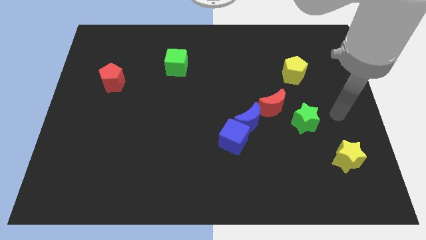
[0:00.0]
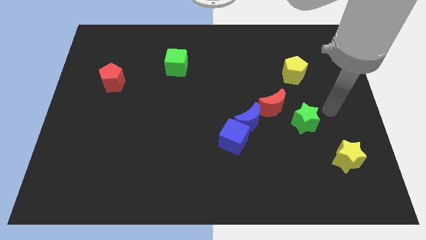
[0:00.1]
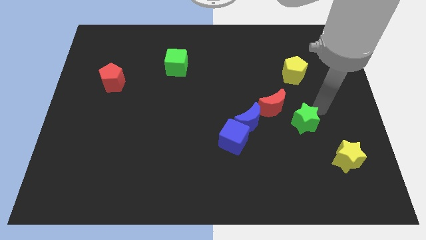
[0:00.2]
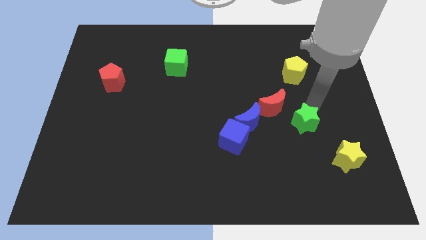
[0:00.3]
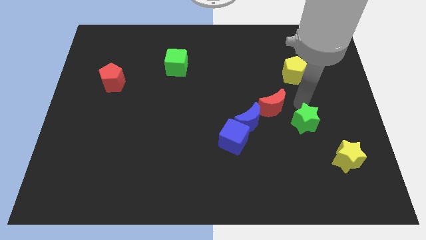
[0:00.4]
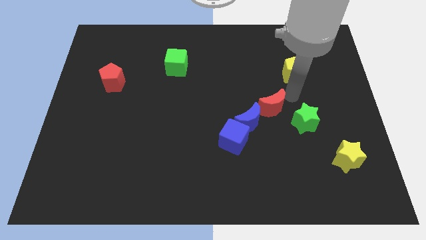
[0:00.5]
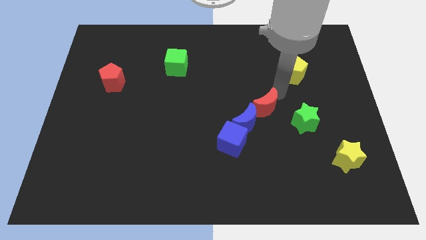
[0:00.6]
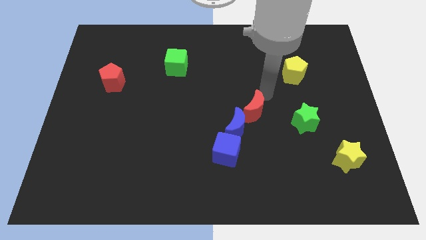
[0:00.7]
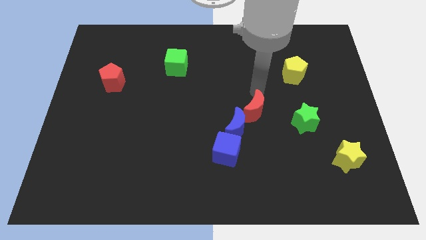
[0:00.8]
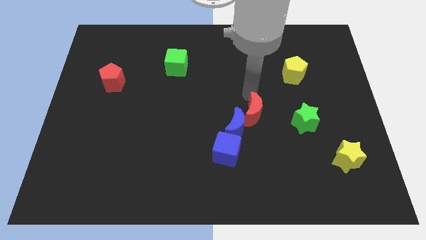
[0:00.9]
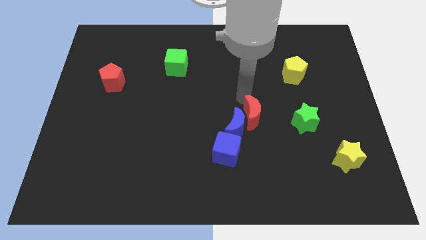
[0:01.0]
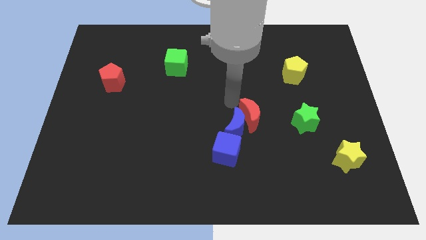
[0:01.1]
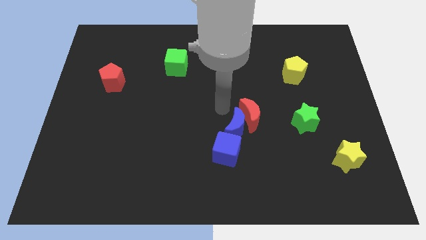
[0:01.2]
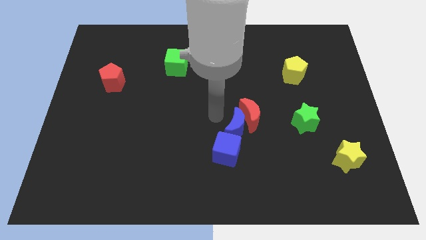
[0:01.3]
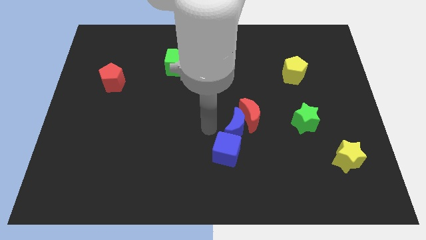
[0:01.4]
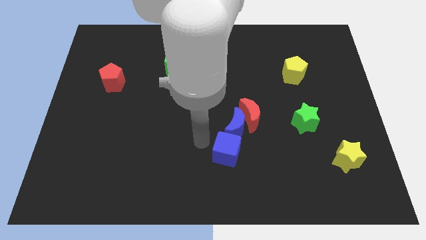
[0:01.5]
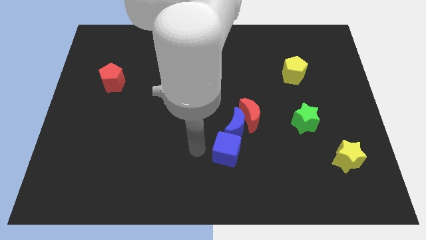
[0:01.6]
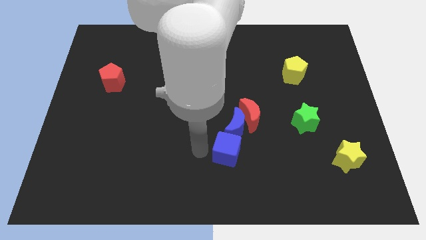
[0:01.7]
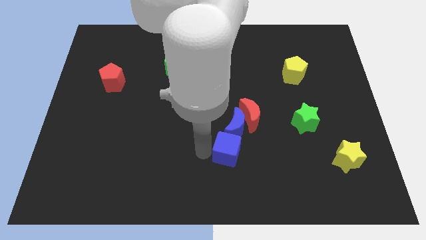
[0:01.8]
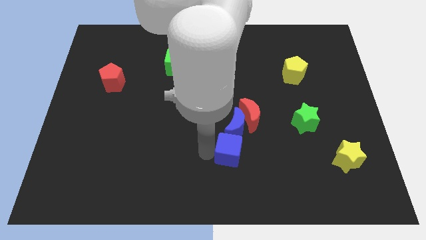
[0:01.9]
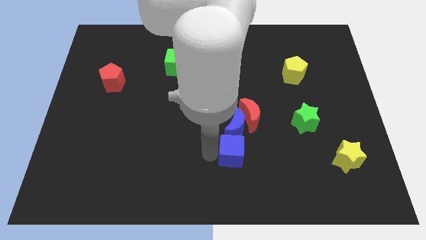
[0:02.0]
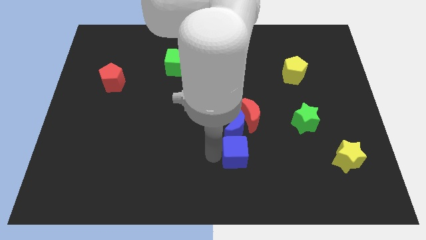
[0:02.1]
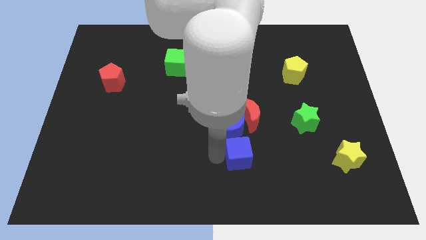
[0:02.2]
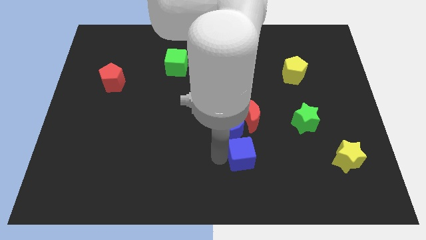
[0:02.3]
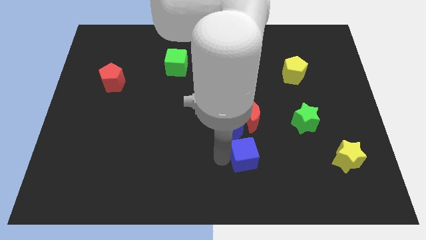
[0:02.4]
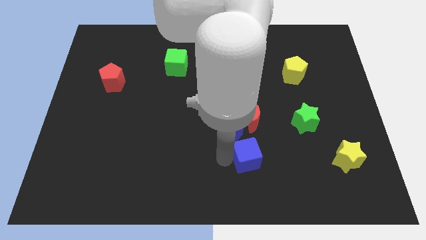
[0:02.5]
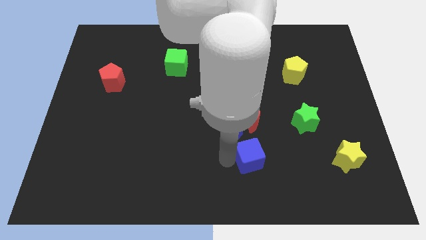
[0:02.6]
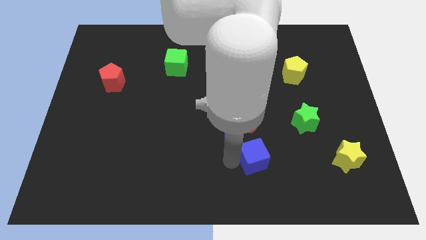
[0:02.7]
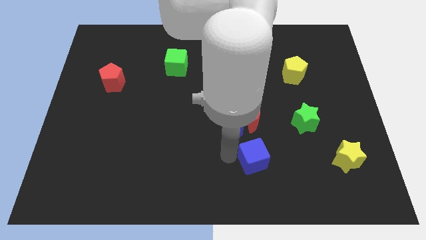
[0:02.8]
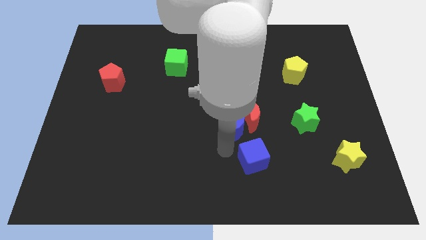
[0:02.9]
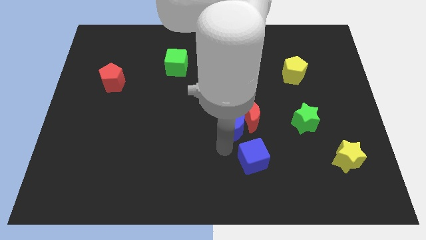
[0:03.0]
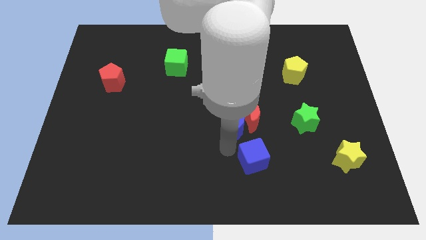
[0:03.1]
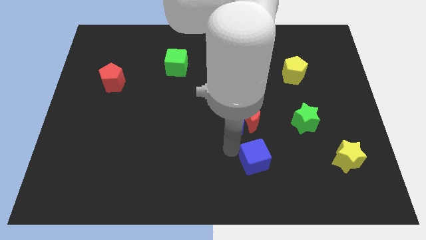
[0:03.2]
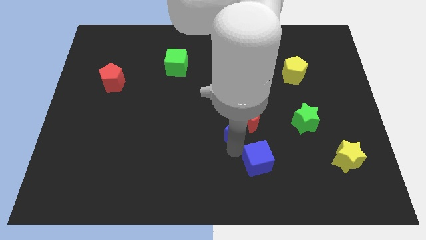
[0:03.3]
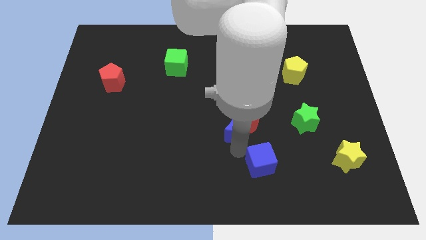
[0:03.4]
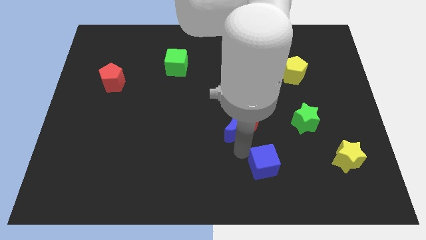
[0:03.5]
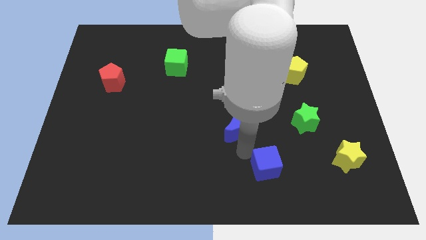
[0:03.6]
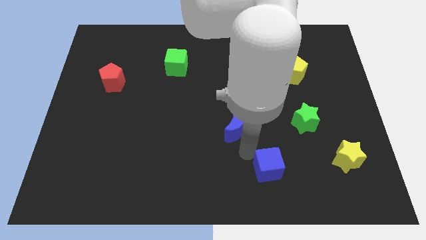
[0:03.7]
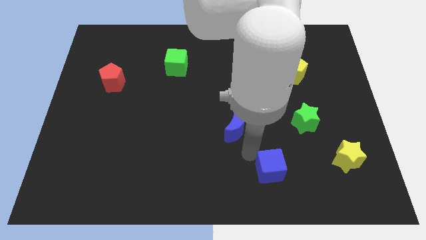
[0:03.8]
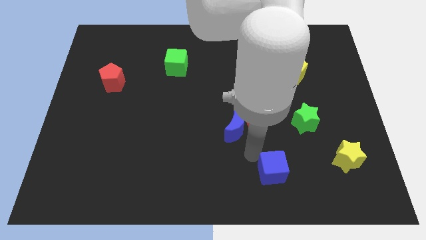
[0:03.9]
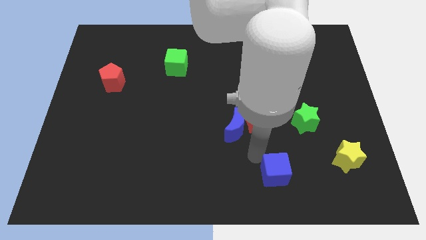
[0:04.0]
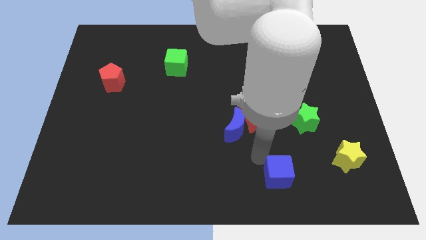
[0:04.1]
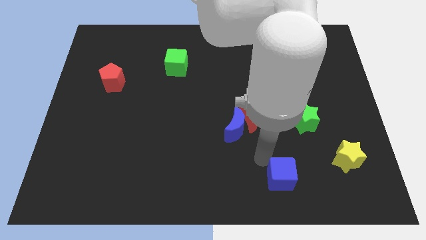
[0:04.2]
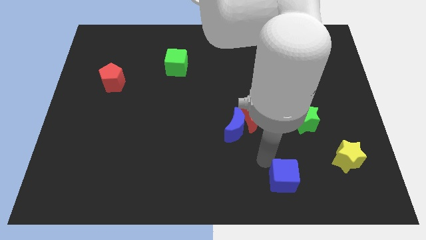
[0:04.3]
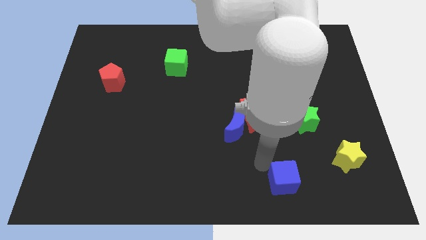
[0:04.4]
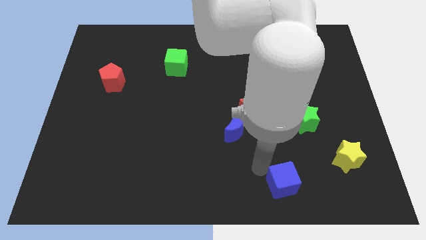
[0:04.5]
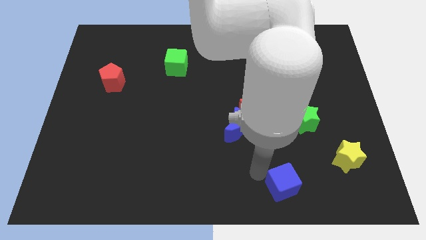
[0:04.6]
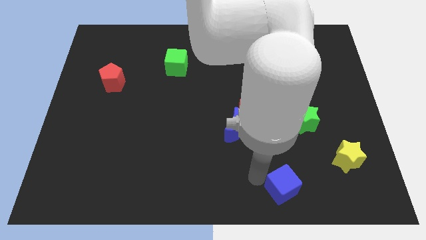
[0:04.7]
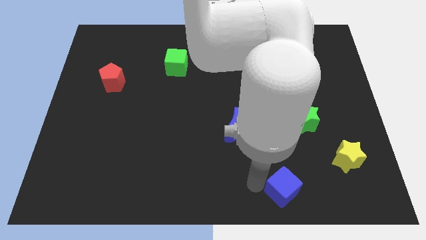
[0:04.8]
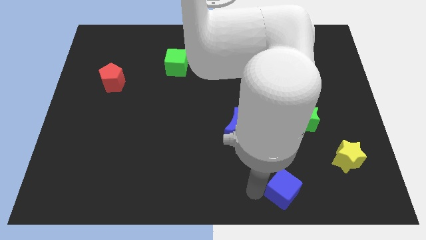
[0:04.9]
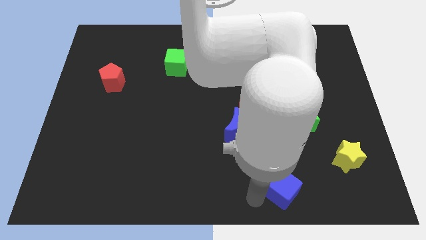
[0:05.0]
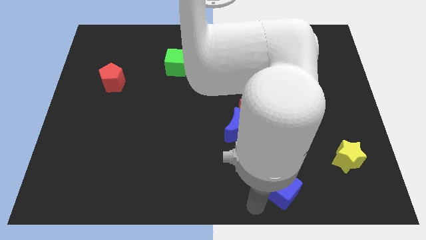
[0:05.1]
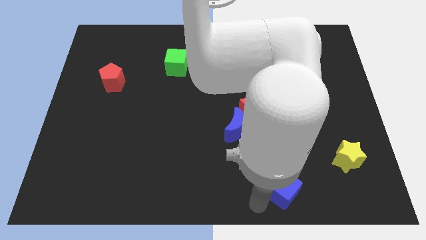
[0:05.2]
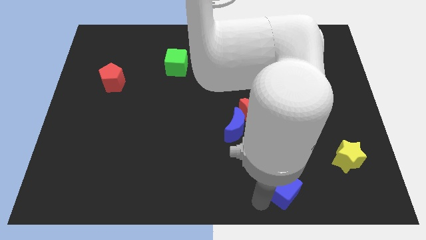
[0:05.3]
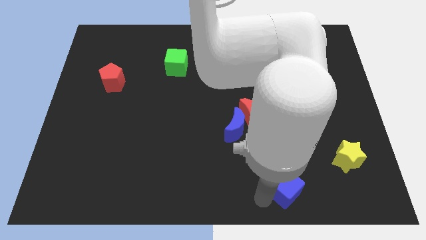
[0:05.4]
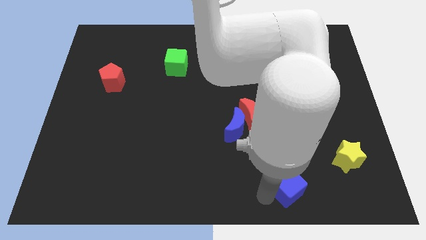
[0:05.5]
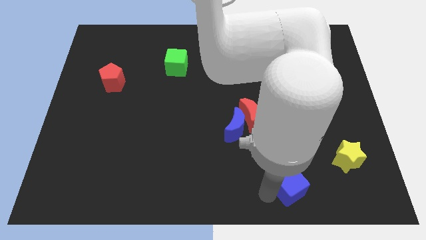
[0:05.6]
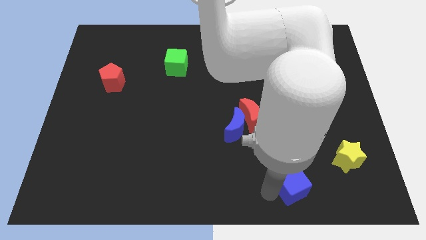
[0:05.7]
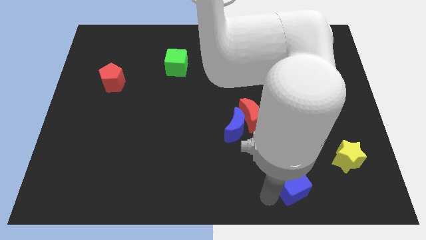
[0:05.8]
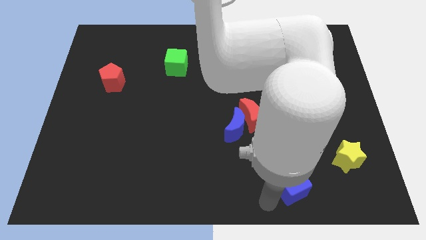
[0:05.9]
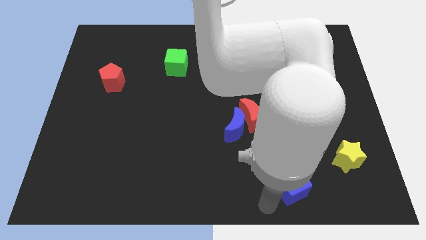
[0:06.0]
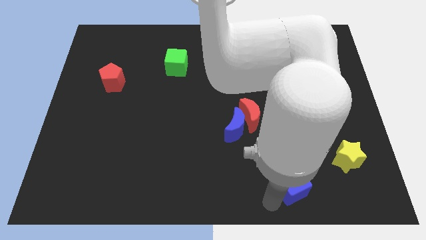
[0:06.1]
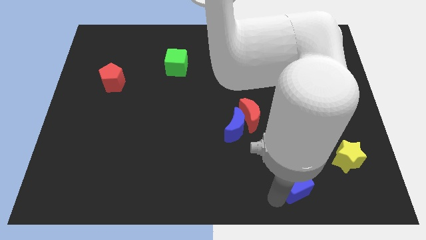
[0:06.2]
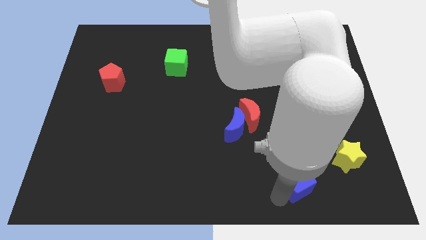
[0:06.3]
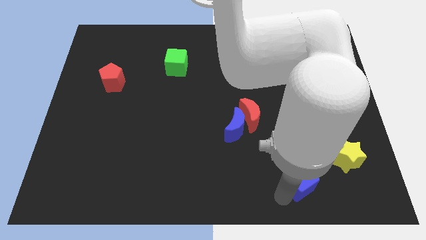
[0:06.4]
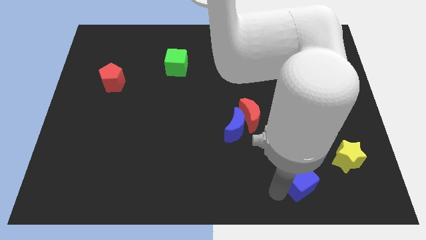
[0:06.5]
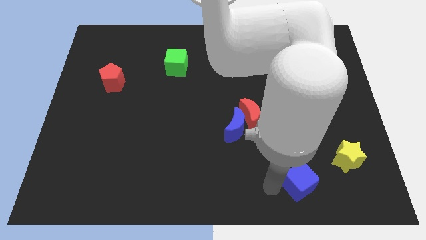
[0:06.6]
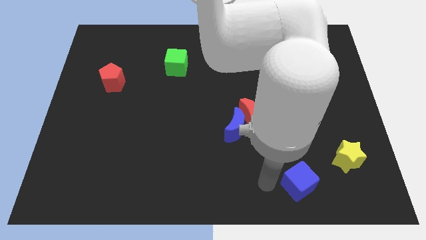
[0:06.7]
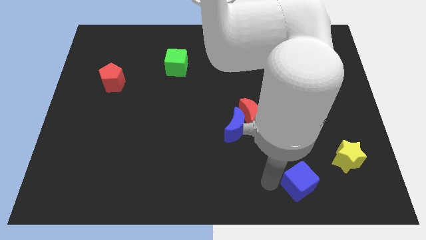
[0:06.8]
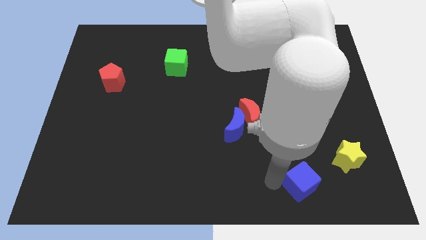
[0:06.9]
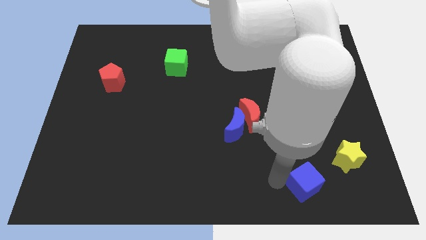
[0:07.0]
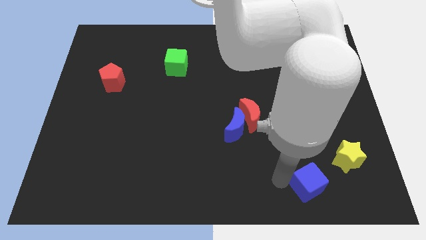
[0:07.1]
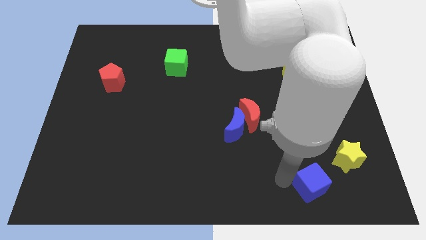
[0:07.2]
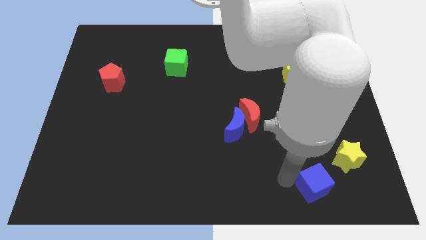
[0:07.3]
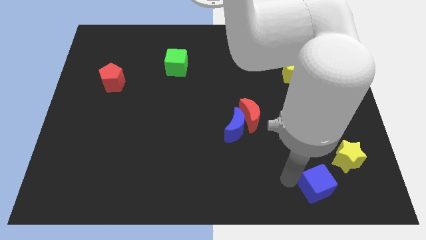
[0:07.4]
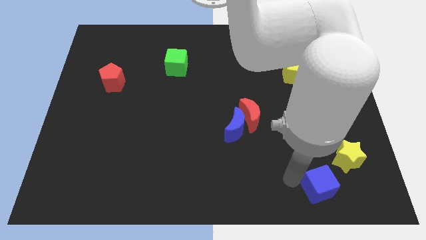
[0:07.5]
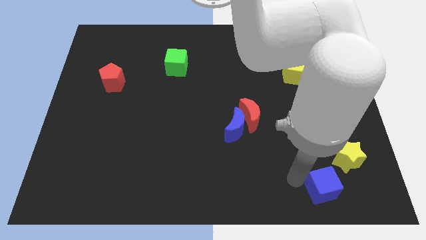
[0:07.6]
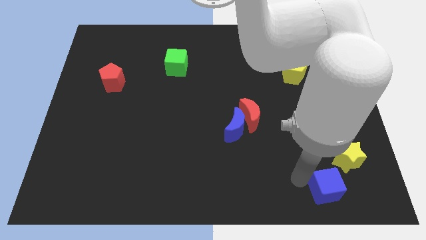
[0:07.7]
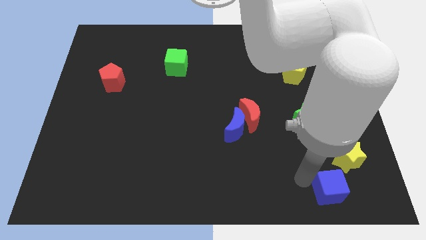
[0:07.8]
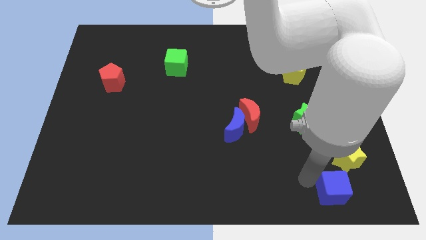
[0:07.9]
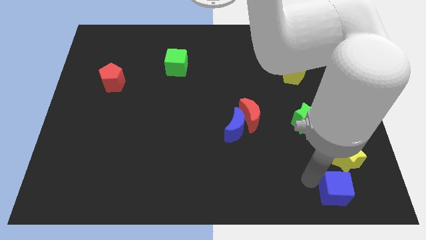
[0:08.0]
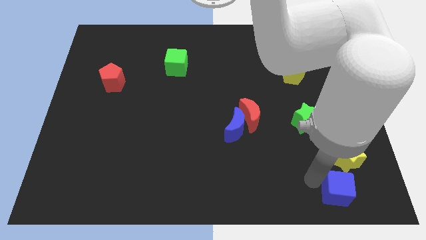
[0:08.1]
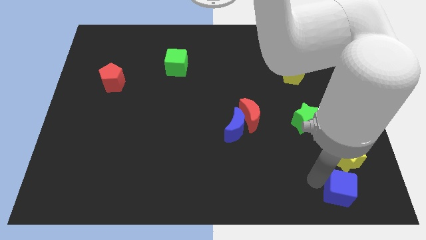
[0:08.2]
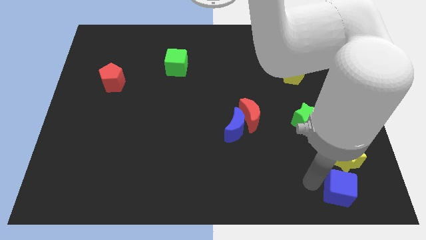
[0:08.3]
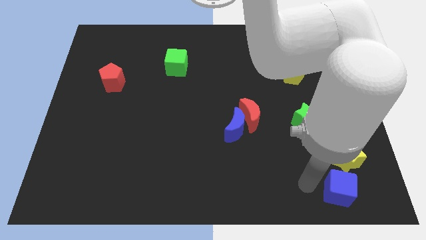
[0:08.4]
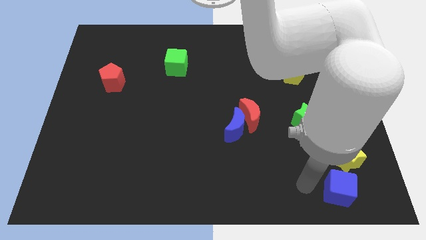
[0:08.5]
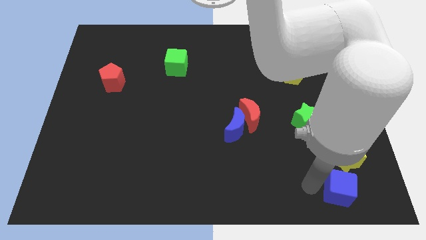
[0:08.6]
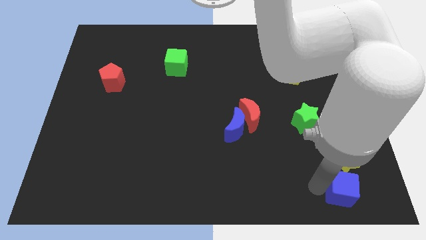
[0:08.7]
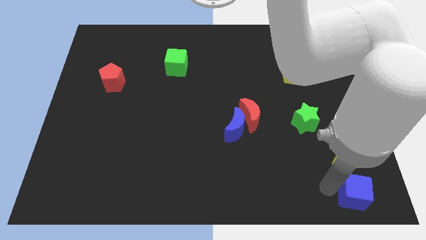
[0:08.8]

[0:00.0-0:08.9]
push the blue cube to the bottom right corner
